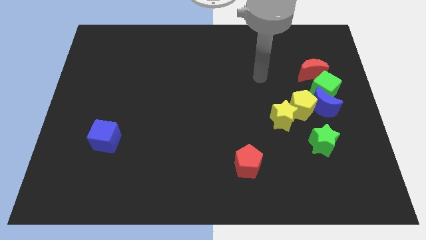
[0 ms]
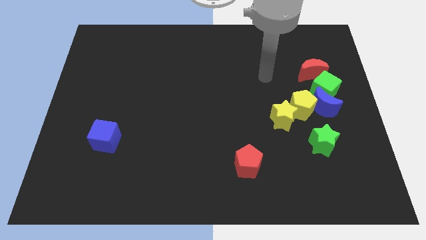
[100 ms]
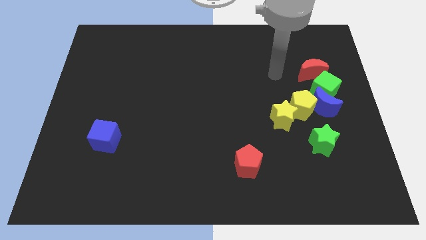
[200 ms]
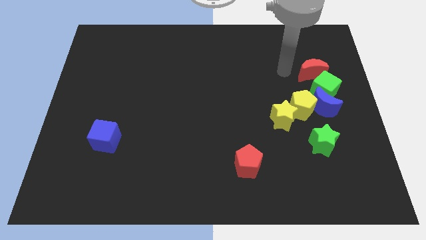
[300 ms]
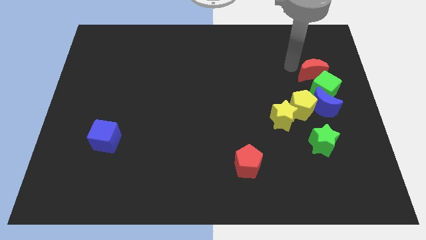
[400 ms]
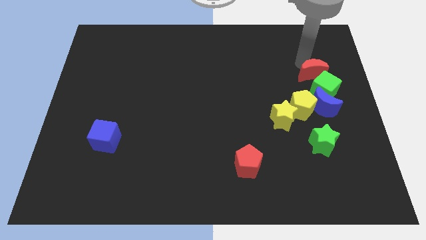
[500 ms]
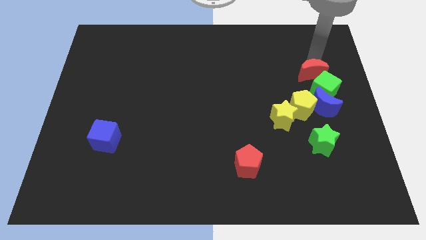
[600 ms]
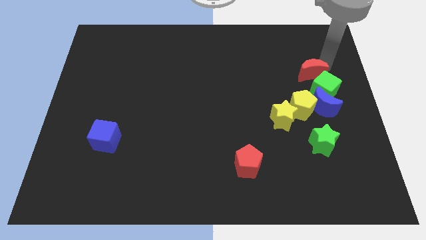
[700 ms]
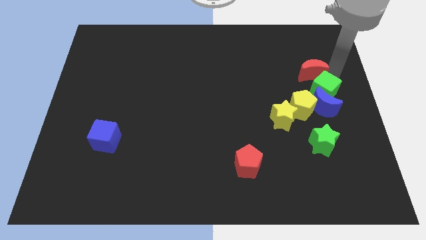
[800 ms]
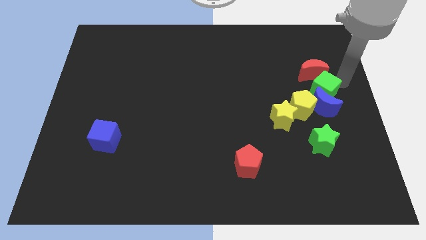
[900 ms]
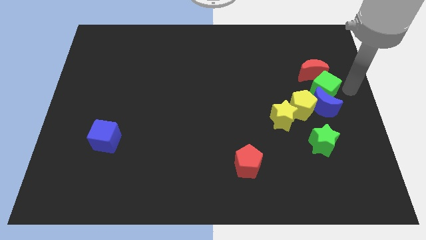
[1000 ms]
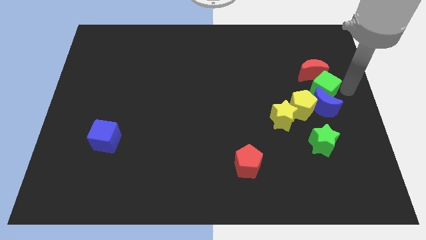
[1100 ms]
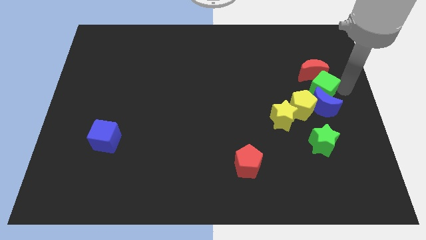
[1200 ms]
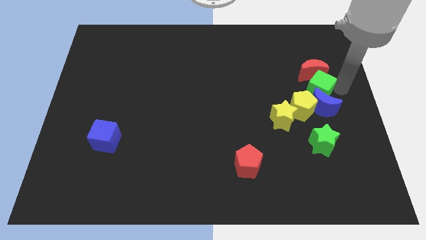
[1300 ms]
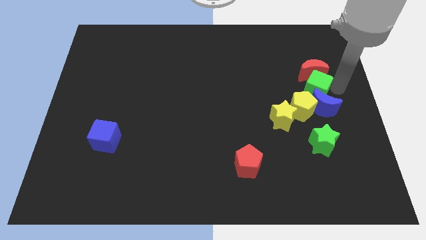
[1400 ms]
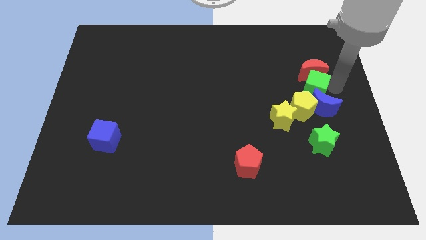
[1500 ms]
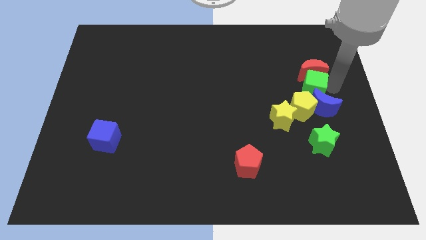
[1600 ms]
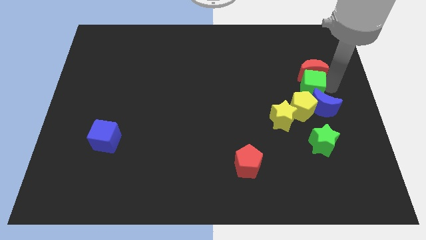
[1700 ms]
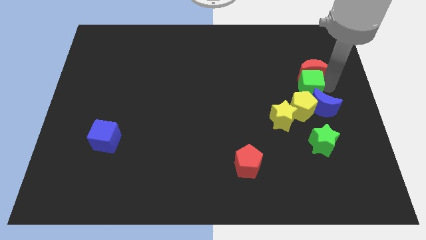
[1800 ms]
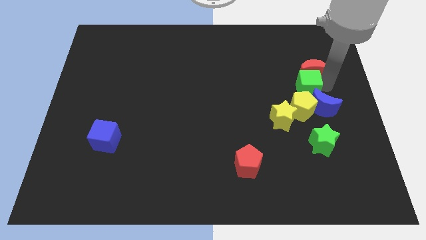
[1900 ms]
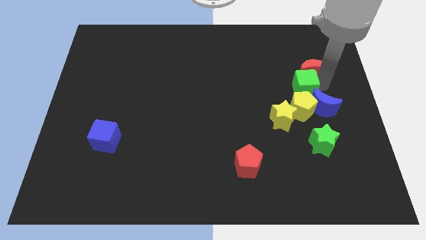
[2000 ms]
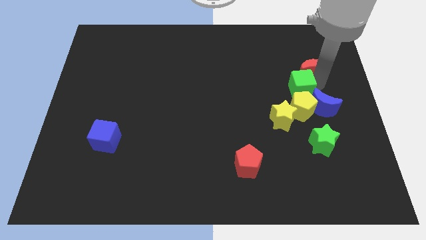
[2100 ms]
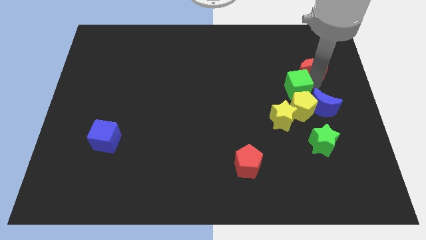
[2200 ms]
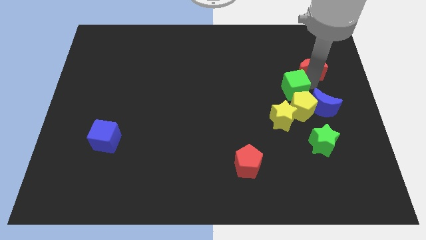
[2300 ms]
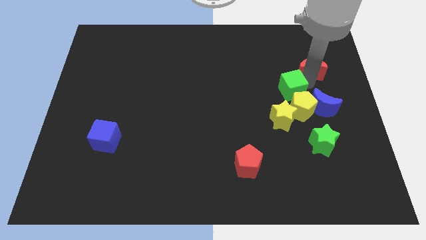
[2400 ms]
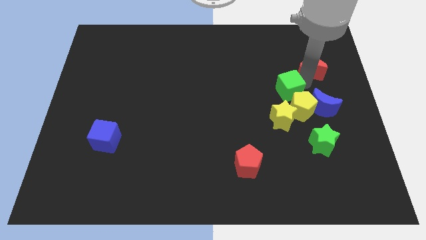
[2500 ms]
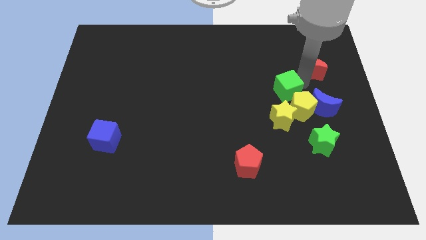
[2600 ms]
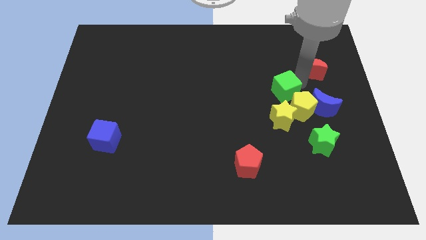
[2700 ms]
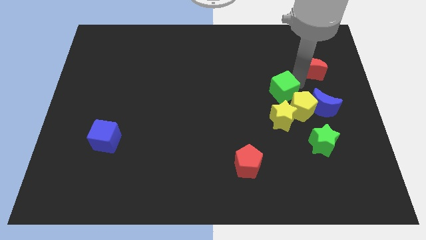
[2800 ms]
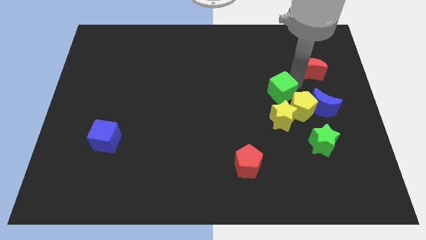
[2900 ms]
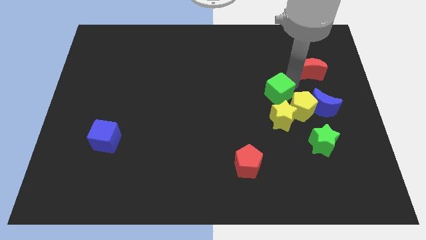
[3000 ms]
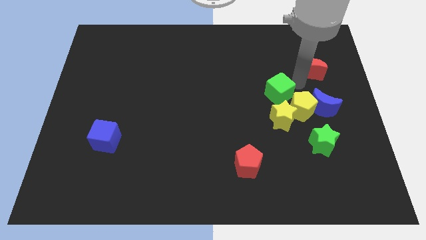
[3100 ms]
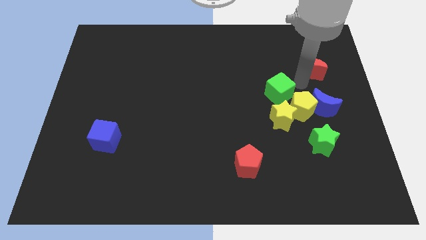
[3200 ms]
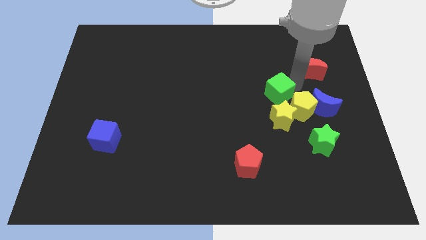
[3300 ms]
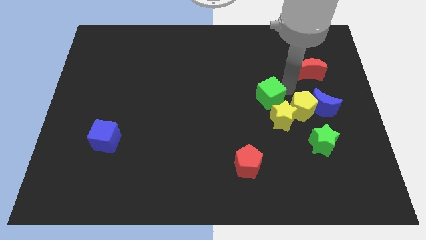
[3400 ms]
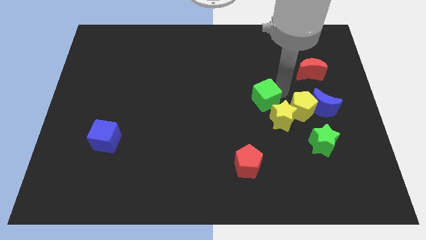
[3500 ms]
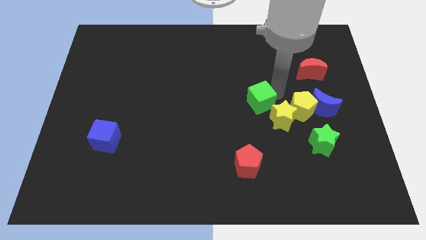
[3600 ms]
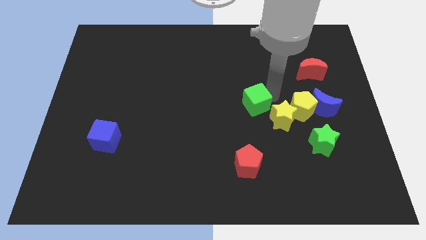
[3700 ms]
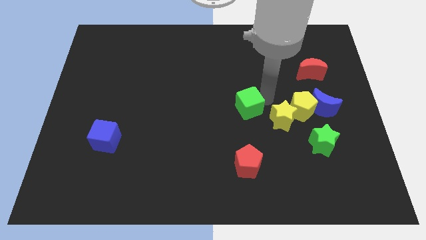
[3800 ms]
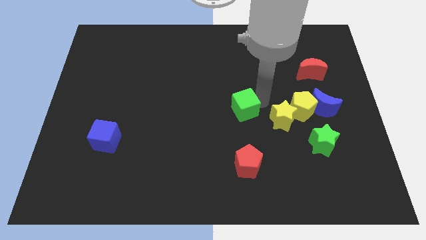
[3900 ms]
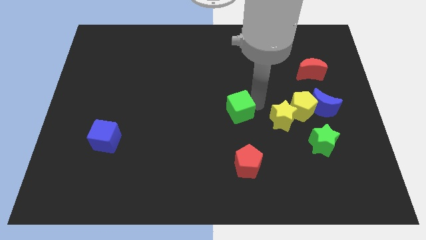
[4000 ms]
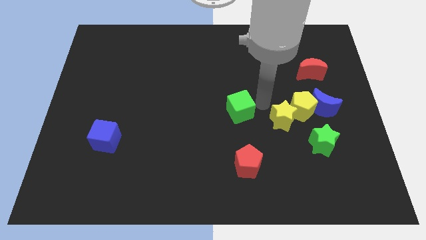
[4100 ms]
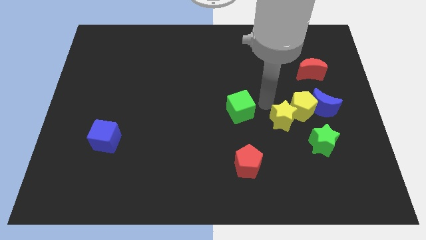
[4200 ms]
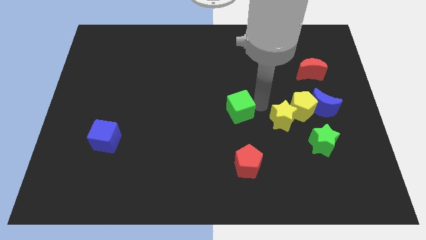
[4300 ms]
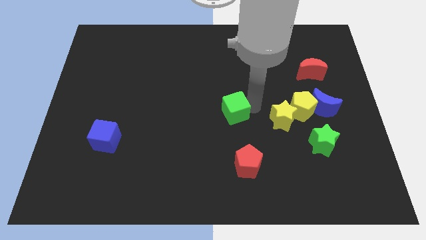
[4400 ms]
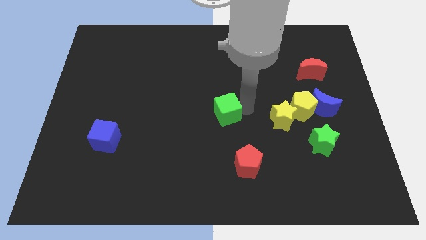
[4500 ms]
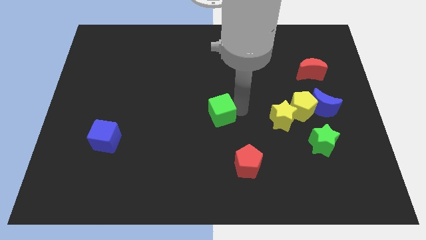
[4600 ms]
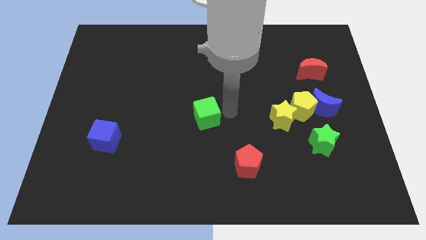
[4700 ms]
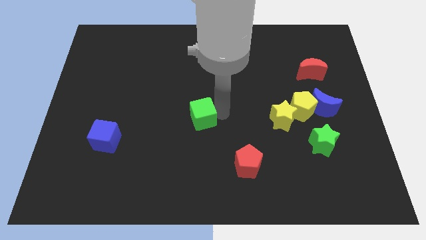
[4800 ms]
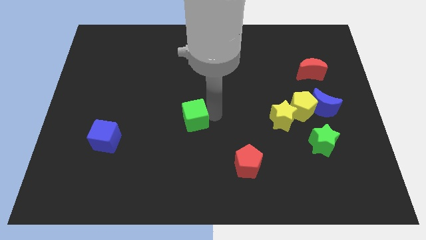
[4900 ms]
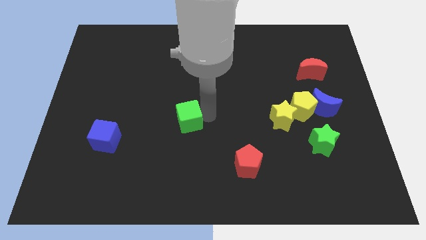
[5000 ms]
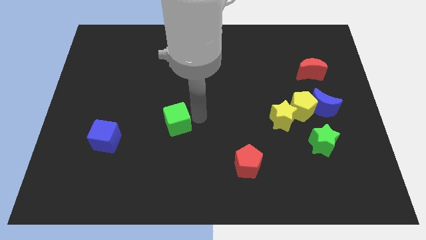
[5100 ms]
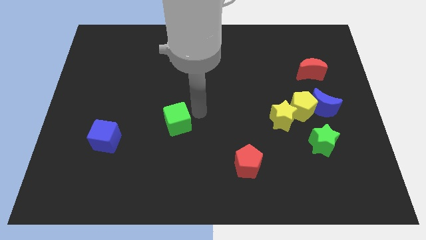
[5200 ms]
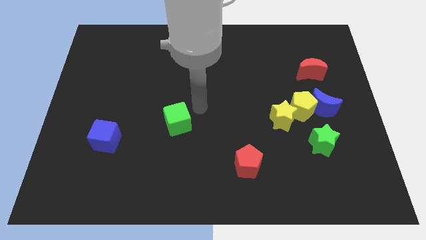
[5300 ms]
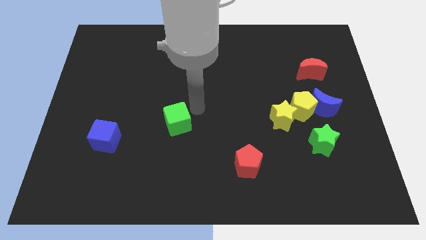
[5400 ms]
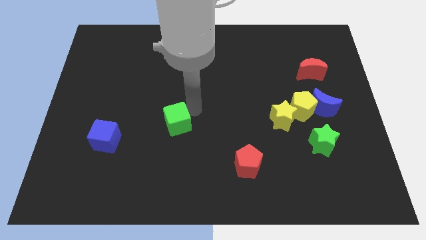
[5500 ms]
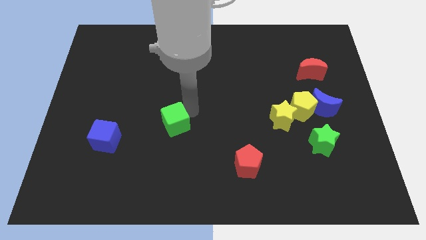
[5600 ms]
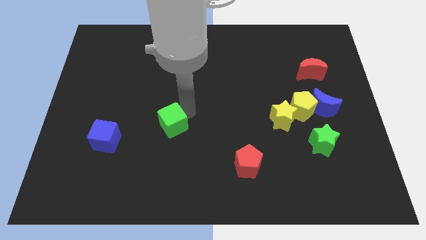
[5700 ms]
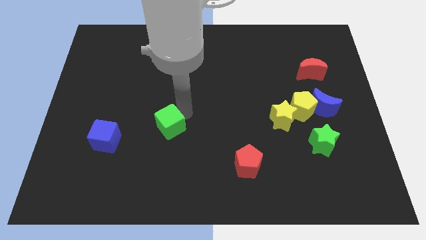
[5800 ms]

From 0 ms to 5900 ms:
slide the green cube to the right of the blue cube

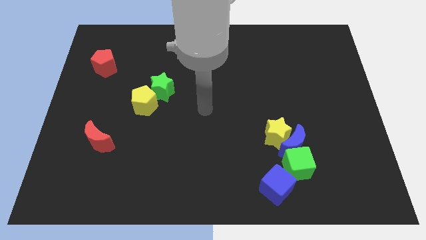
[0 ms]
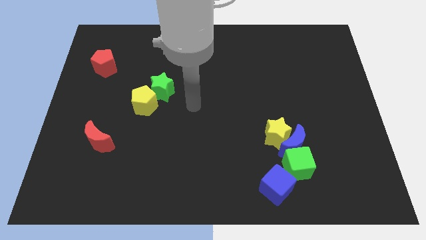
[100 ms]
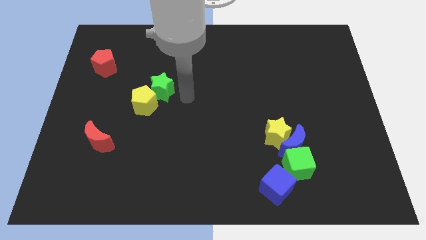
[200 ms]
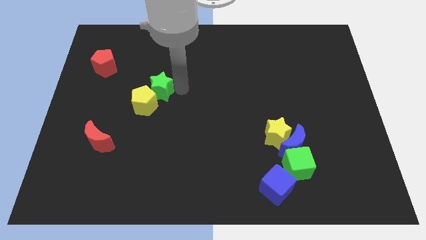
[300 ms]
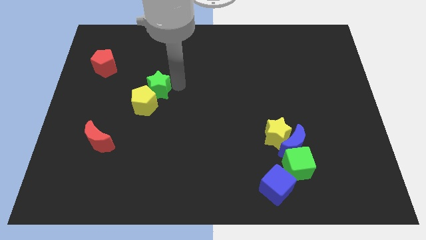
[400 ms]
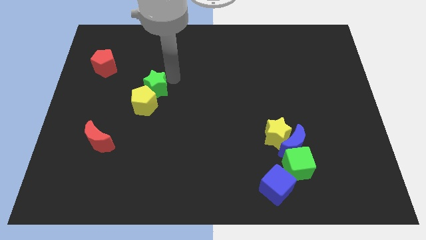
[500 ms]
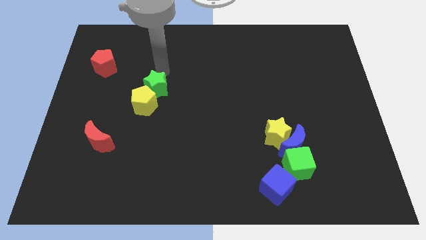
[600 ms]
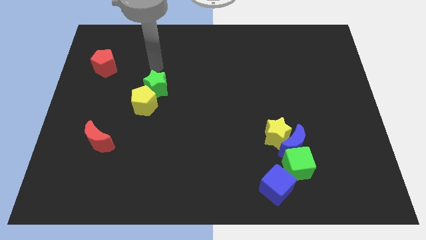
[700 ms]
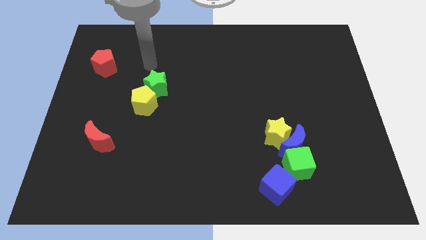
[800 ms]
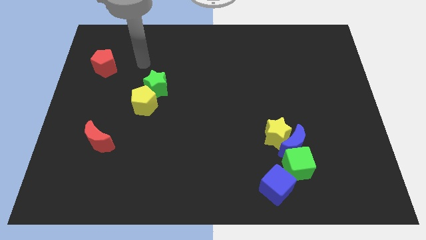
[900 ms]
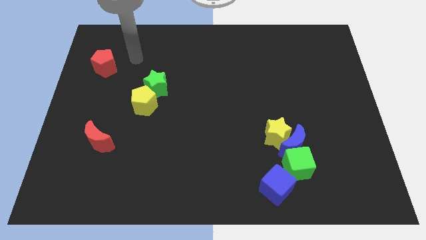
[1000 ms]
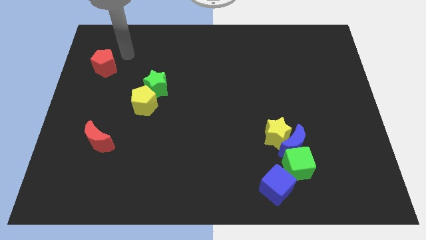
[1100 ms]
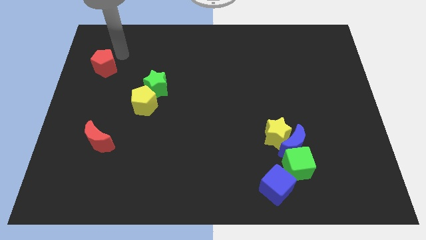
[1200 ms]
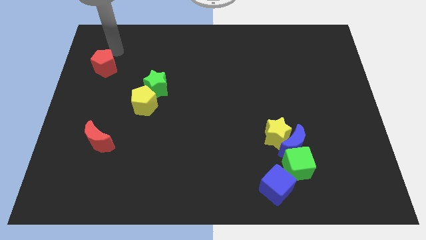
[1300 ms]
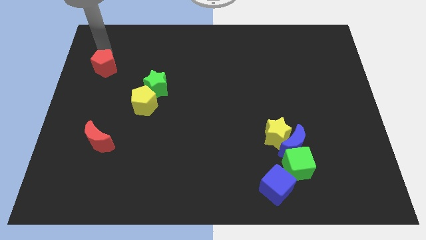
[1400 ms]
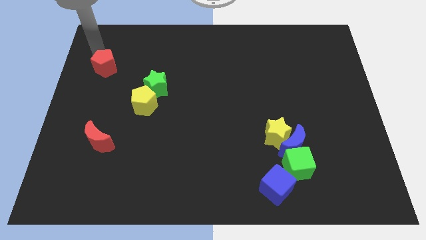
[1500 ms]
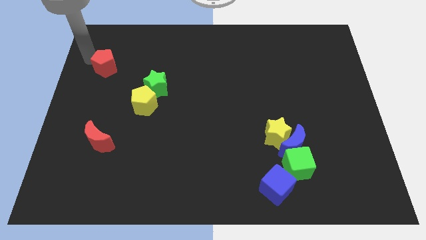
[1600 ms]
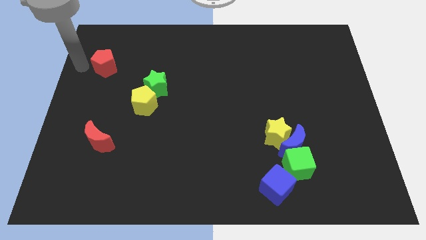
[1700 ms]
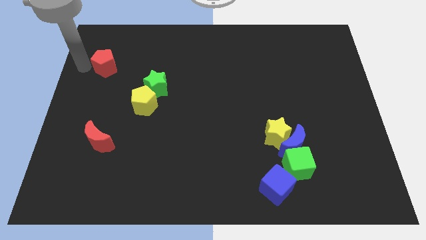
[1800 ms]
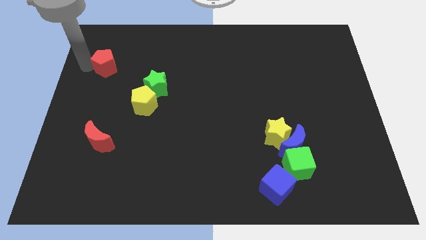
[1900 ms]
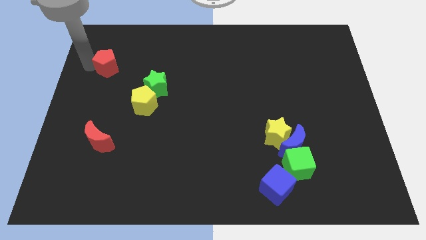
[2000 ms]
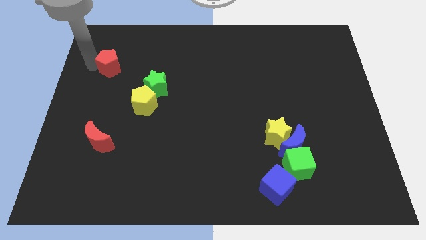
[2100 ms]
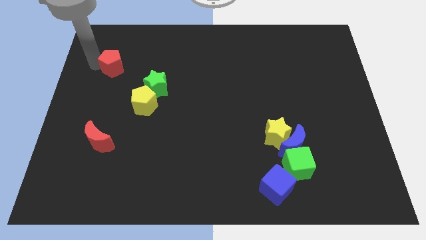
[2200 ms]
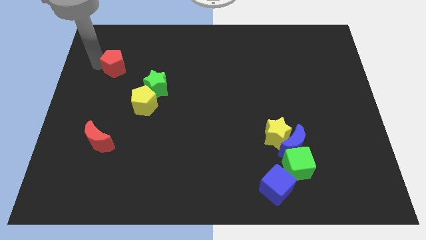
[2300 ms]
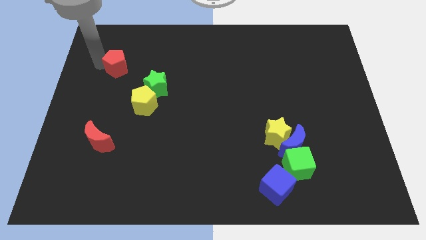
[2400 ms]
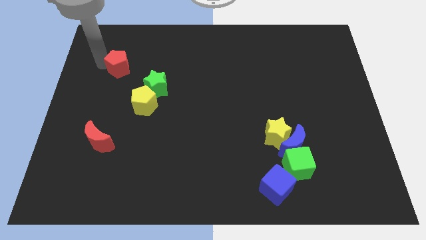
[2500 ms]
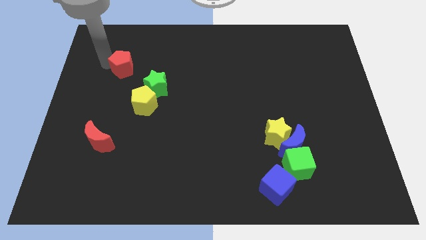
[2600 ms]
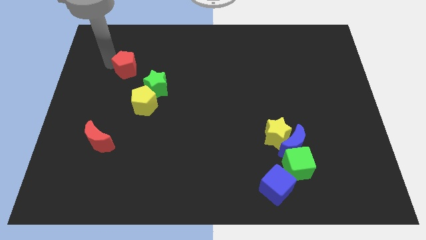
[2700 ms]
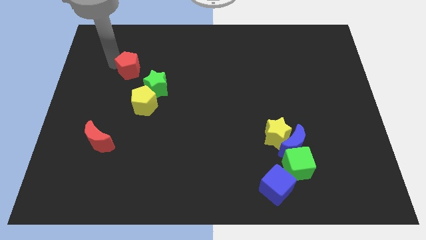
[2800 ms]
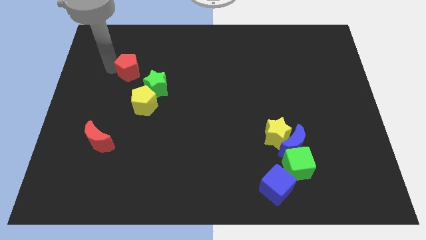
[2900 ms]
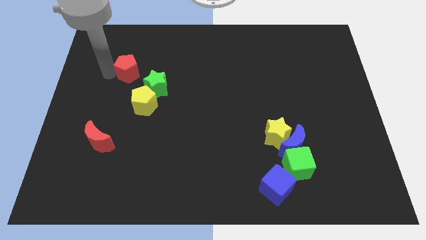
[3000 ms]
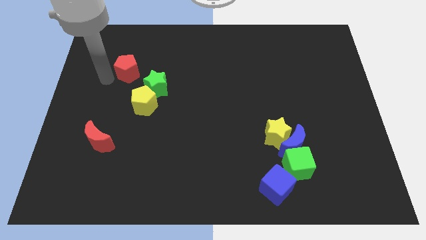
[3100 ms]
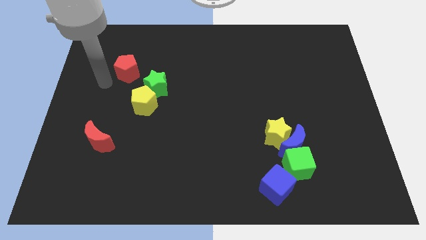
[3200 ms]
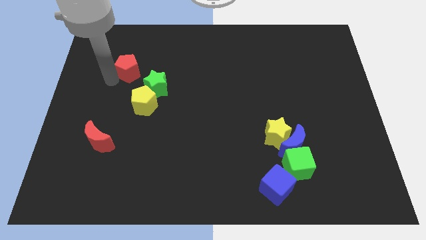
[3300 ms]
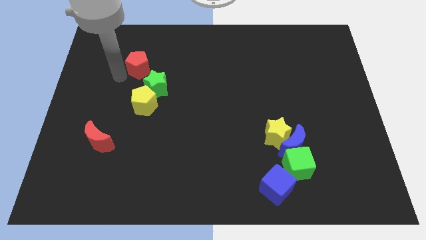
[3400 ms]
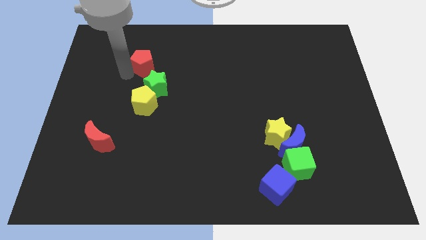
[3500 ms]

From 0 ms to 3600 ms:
put the red pentagon to the top of the green star
